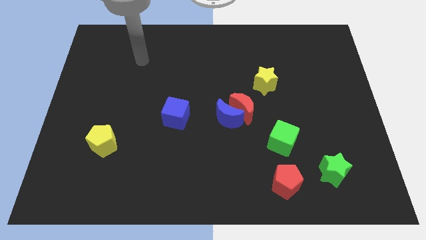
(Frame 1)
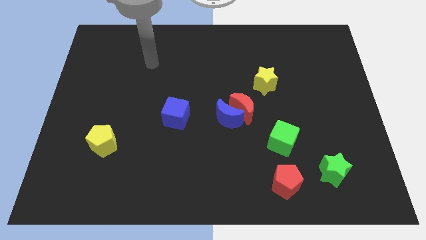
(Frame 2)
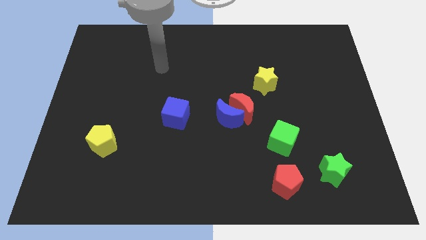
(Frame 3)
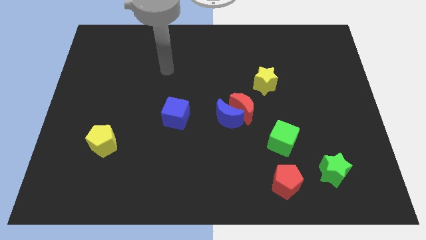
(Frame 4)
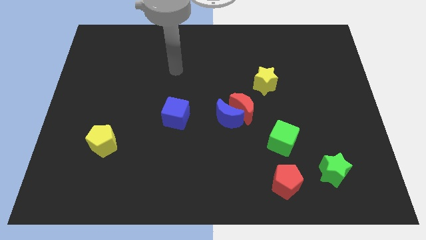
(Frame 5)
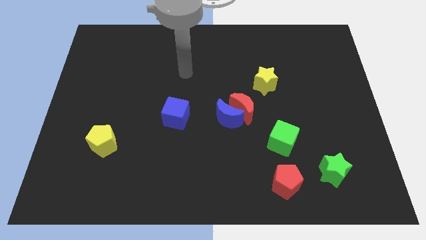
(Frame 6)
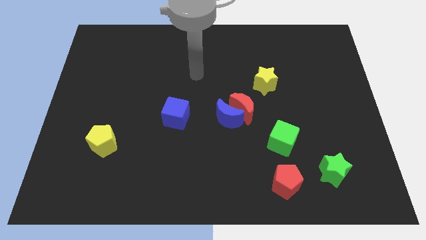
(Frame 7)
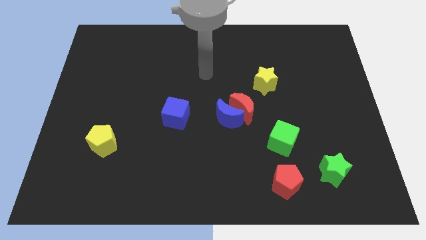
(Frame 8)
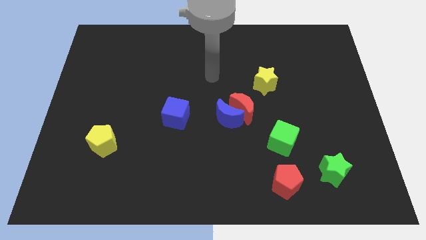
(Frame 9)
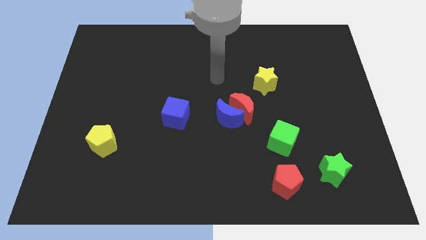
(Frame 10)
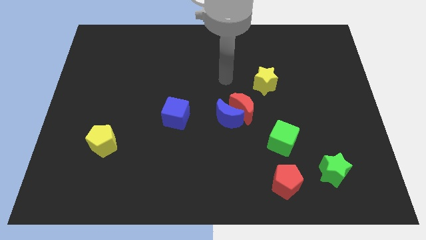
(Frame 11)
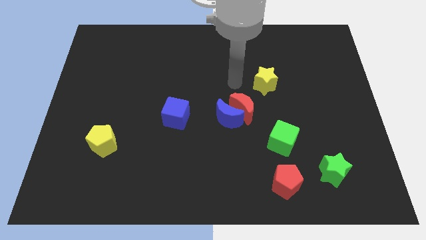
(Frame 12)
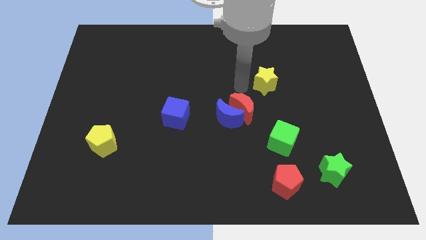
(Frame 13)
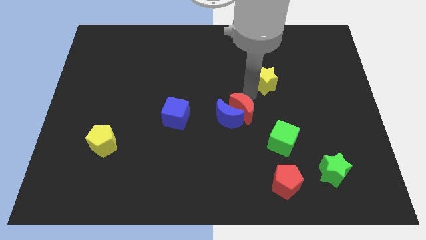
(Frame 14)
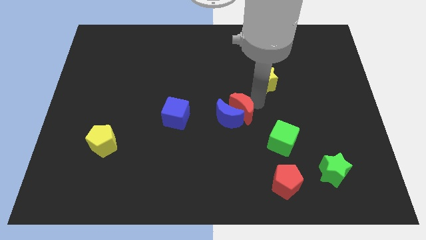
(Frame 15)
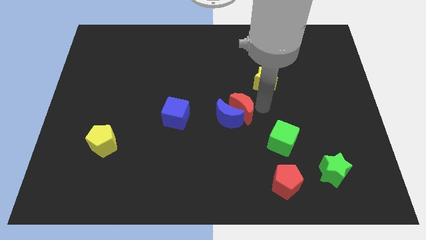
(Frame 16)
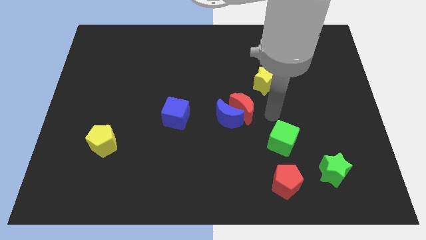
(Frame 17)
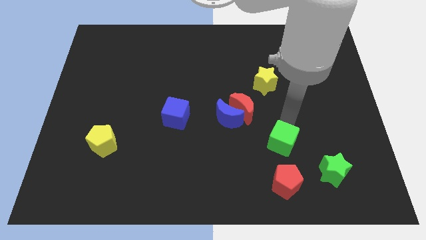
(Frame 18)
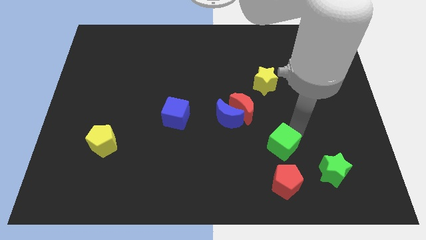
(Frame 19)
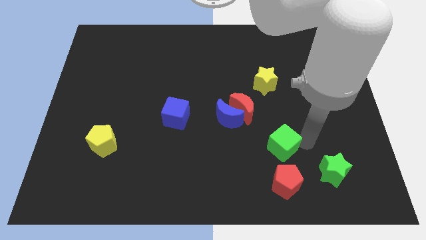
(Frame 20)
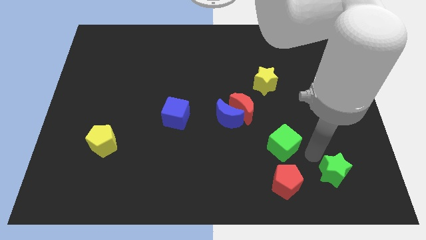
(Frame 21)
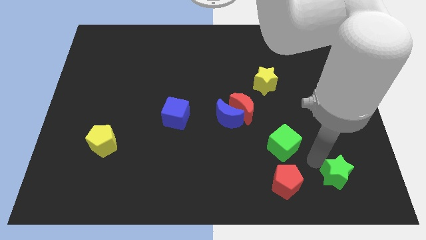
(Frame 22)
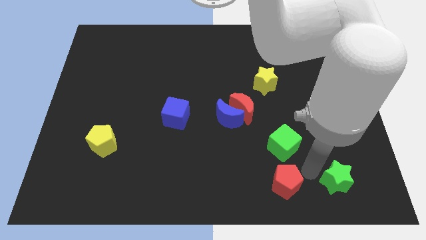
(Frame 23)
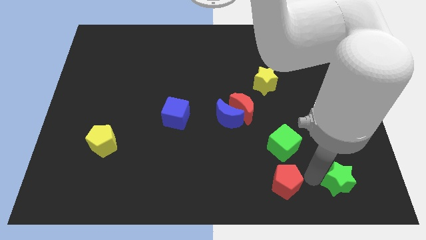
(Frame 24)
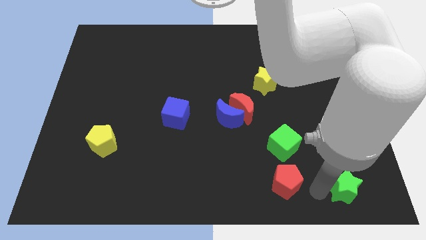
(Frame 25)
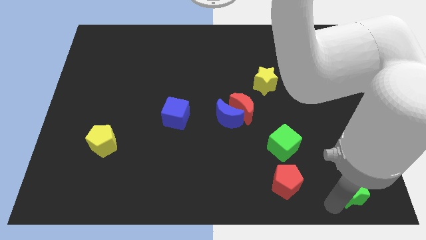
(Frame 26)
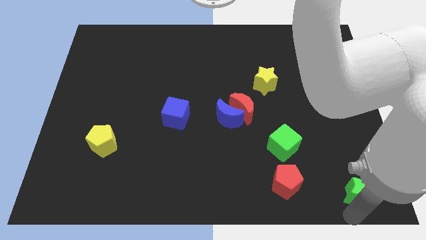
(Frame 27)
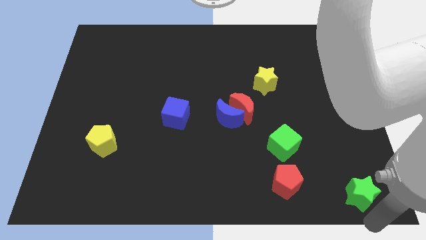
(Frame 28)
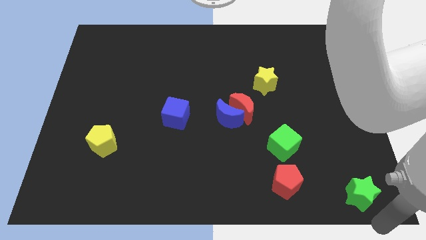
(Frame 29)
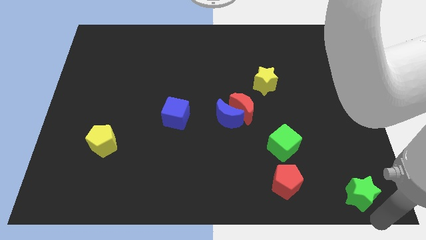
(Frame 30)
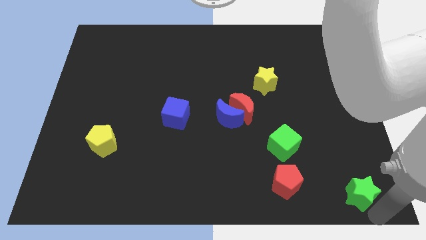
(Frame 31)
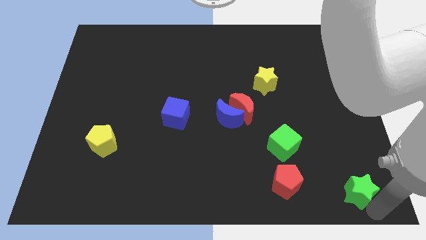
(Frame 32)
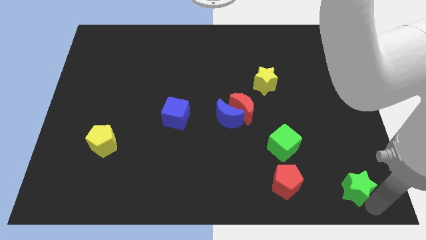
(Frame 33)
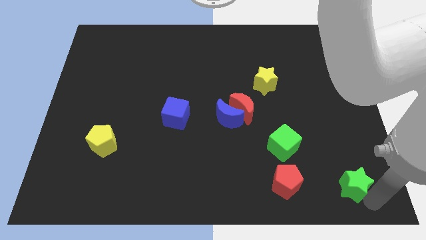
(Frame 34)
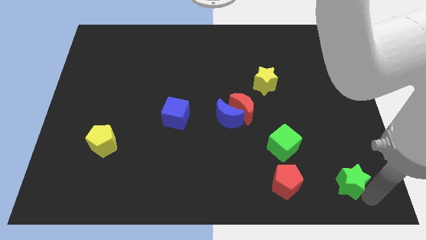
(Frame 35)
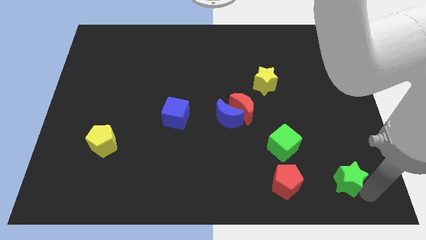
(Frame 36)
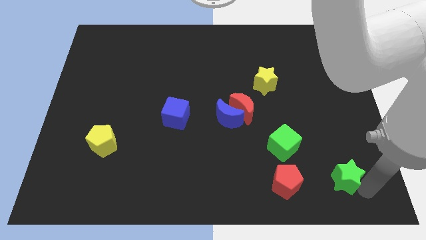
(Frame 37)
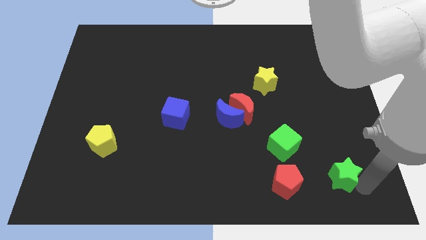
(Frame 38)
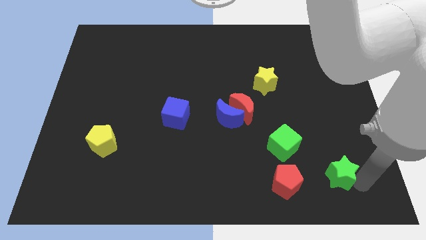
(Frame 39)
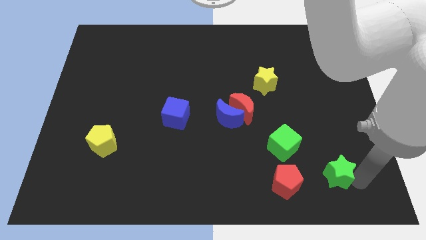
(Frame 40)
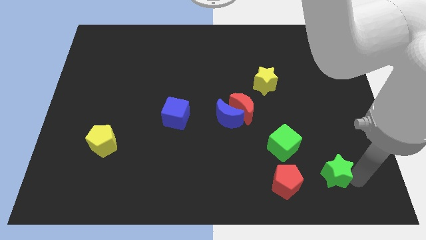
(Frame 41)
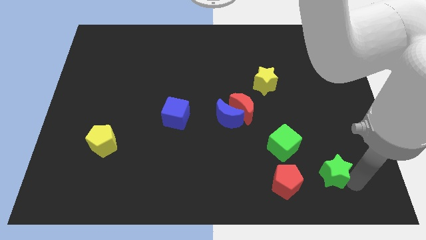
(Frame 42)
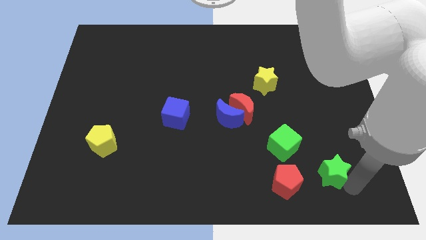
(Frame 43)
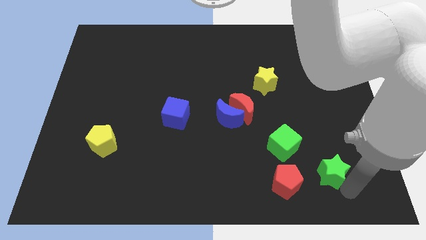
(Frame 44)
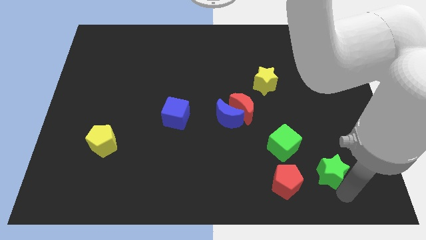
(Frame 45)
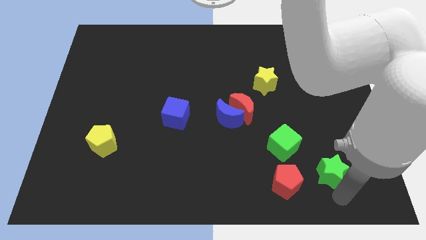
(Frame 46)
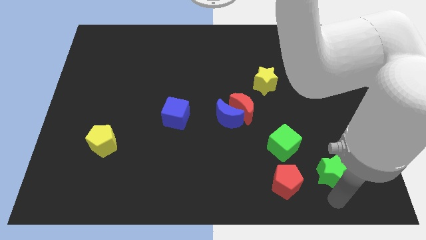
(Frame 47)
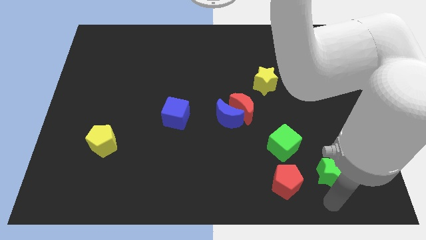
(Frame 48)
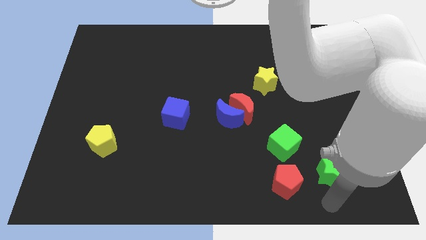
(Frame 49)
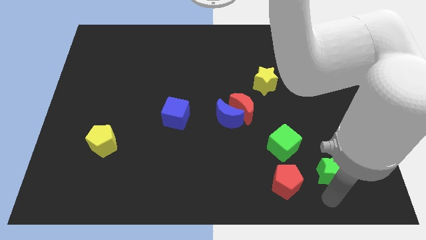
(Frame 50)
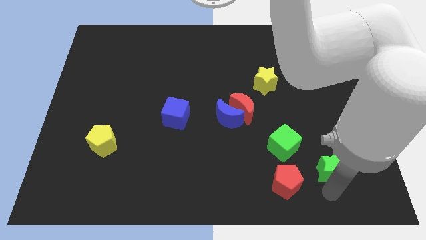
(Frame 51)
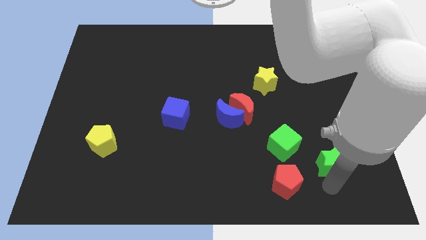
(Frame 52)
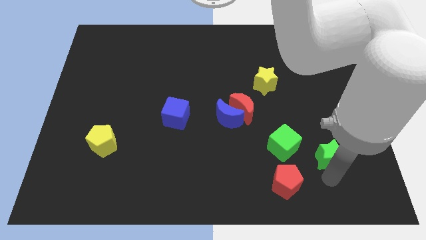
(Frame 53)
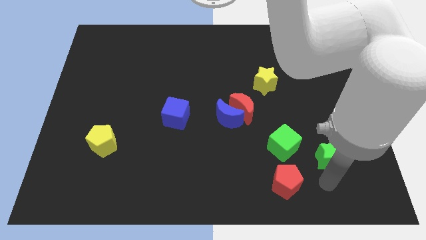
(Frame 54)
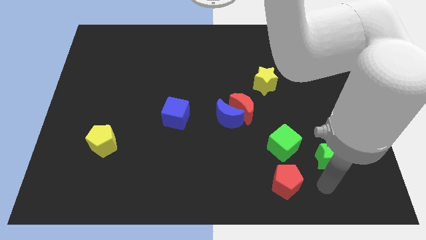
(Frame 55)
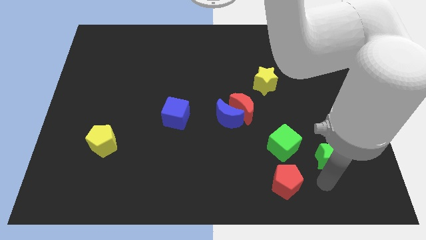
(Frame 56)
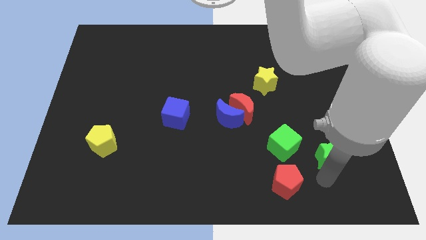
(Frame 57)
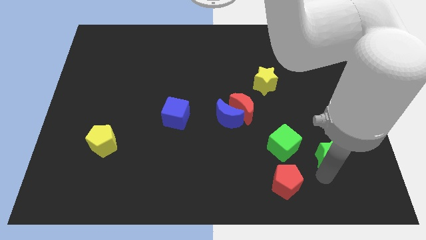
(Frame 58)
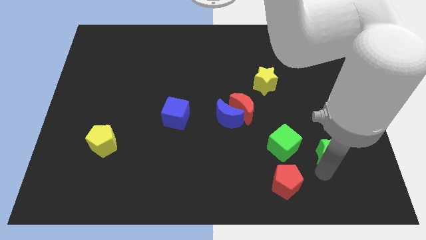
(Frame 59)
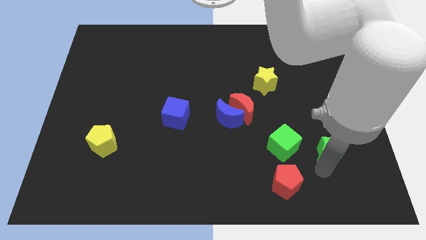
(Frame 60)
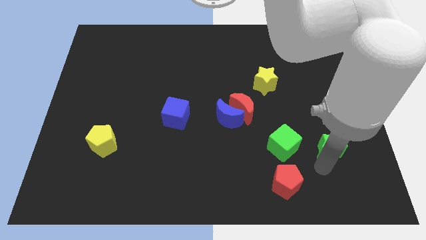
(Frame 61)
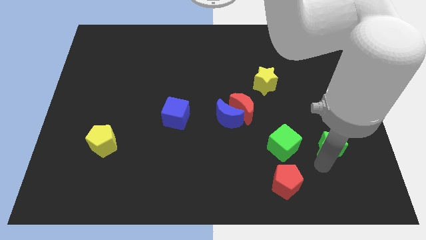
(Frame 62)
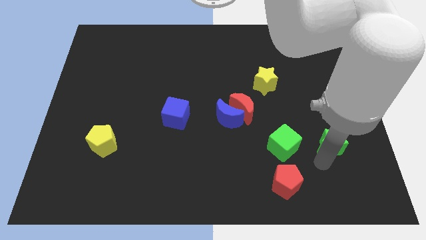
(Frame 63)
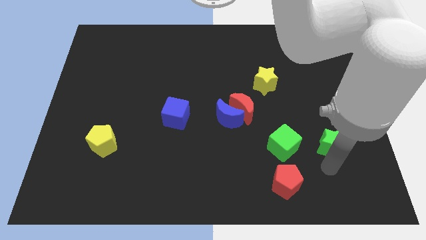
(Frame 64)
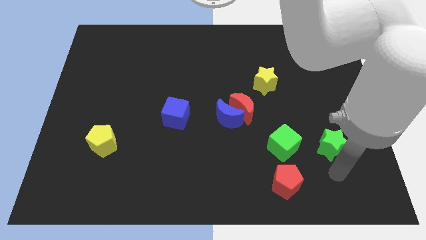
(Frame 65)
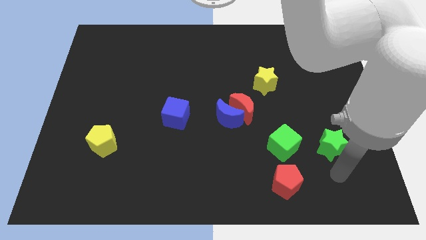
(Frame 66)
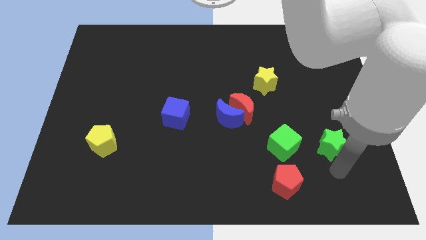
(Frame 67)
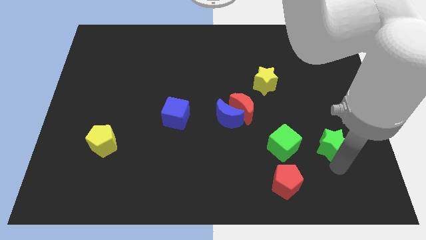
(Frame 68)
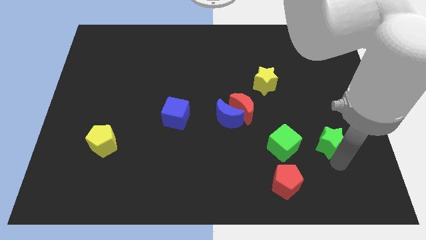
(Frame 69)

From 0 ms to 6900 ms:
slide the green star slightly upwards

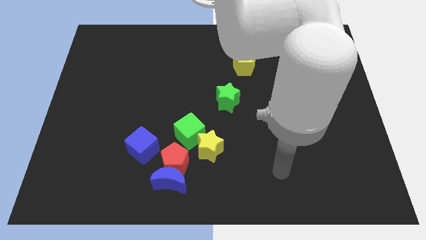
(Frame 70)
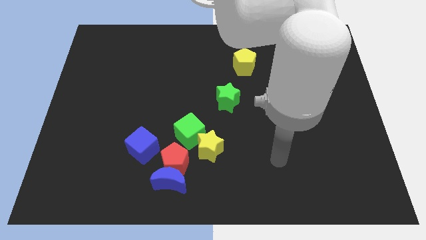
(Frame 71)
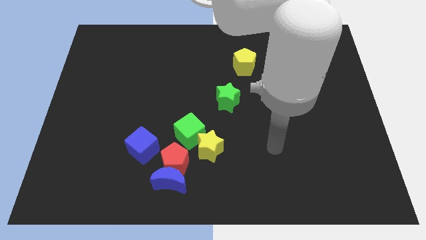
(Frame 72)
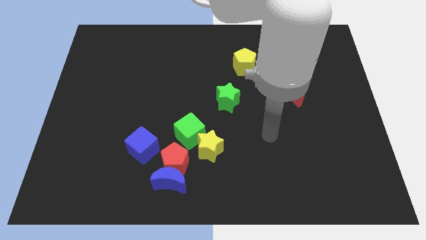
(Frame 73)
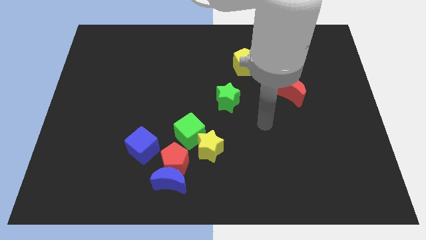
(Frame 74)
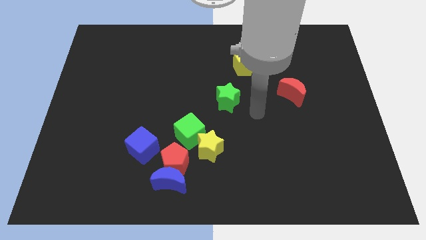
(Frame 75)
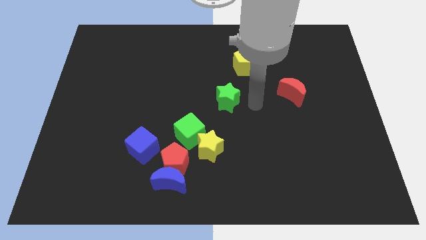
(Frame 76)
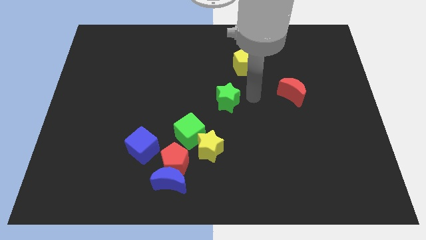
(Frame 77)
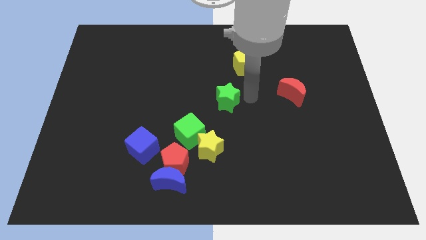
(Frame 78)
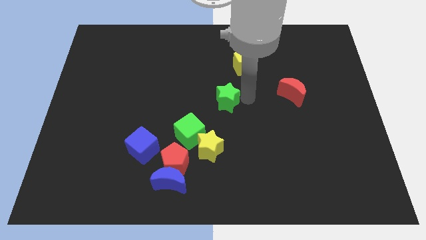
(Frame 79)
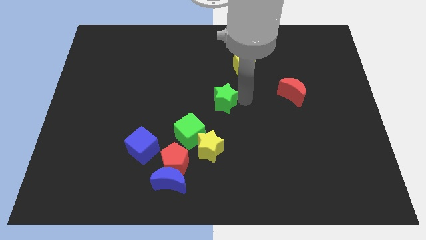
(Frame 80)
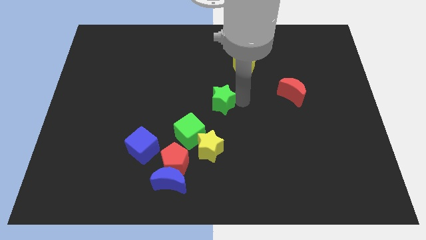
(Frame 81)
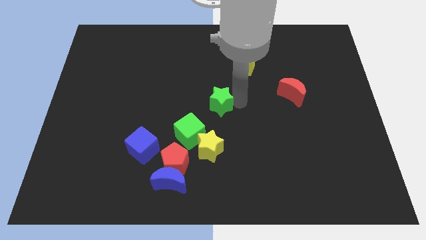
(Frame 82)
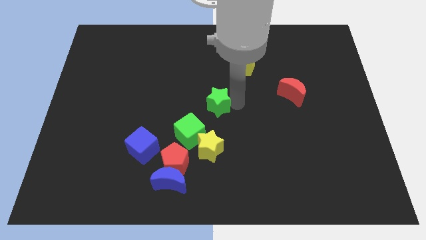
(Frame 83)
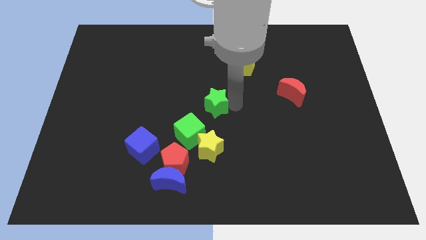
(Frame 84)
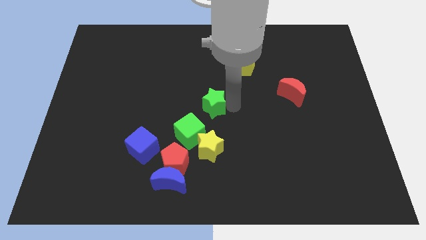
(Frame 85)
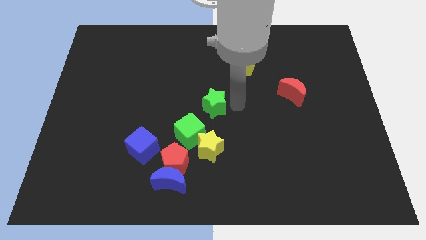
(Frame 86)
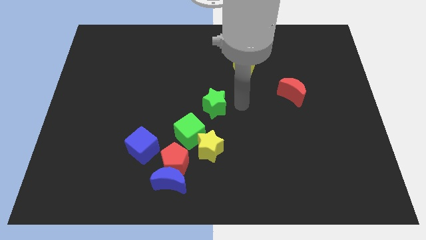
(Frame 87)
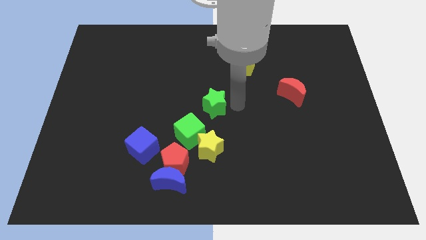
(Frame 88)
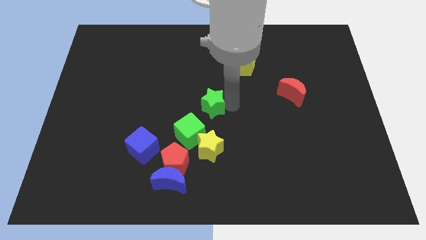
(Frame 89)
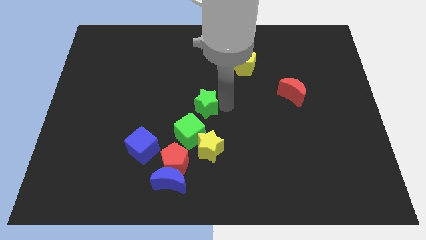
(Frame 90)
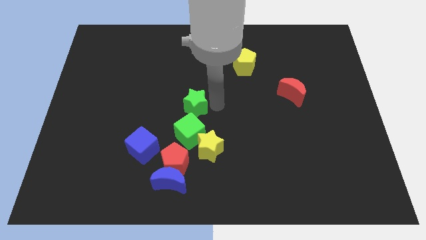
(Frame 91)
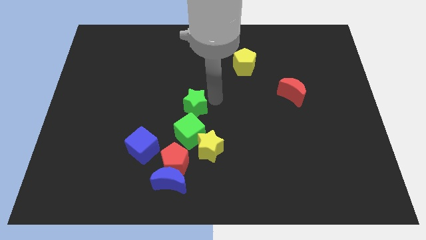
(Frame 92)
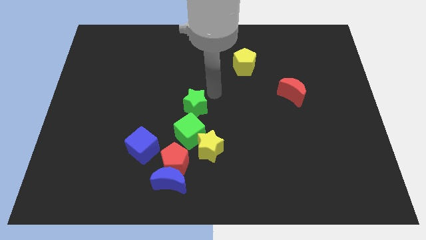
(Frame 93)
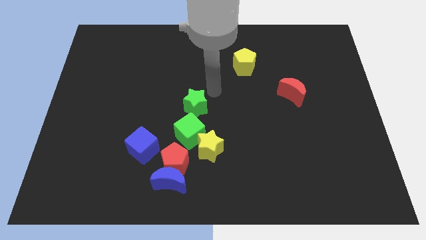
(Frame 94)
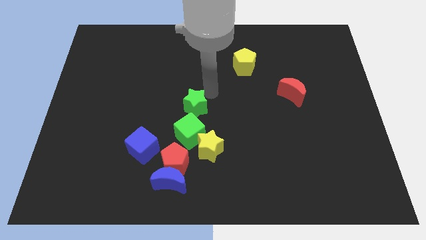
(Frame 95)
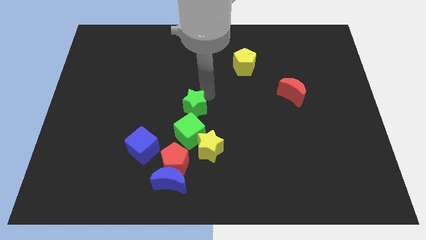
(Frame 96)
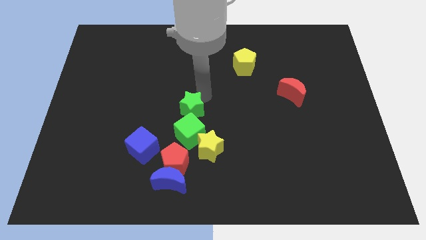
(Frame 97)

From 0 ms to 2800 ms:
slide the green star a little bit down and then to the left
